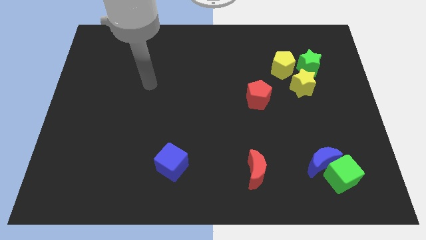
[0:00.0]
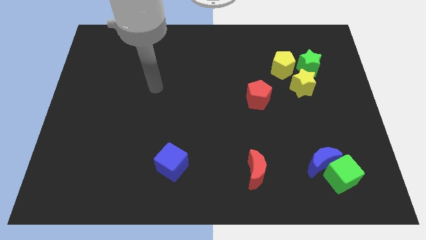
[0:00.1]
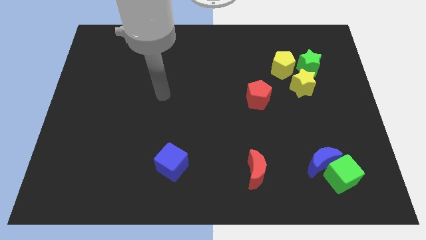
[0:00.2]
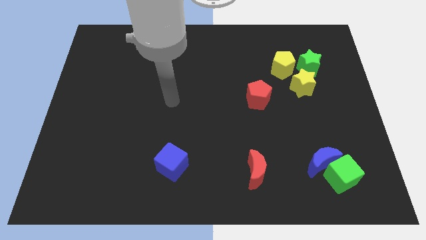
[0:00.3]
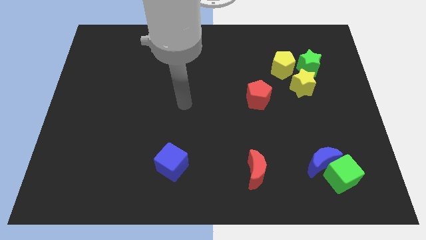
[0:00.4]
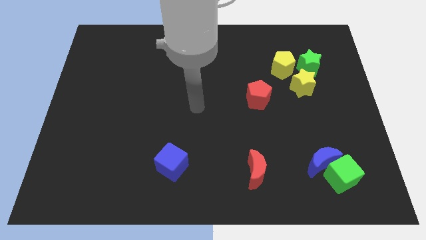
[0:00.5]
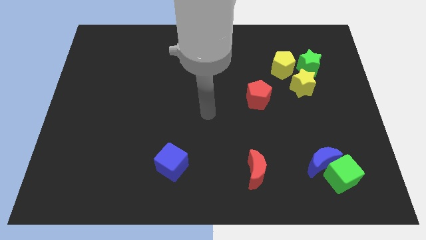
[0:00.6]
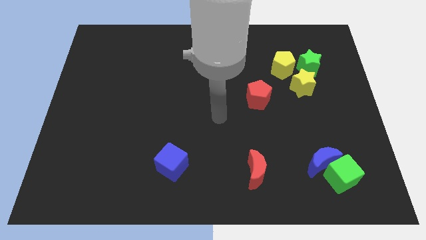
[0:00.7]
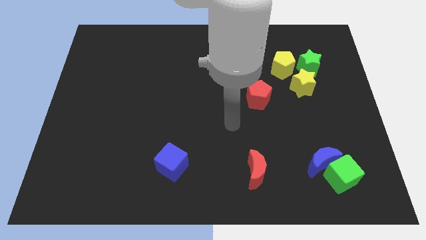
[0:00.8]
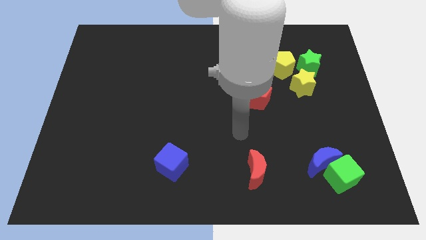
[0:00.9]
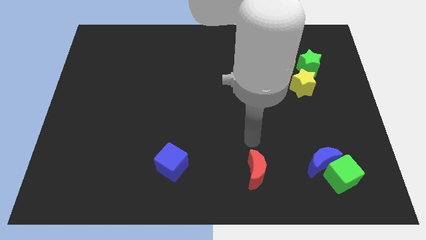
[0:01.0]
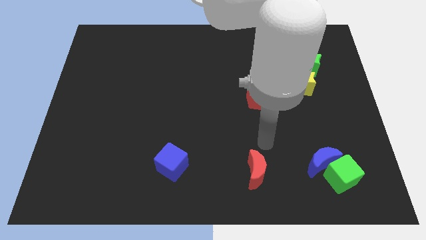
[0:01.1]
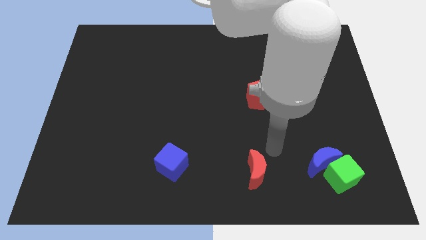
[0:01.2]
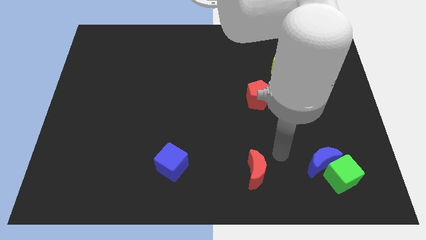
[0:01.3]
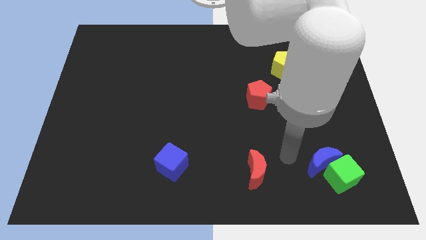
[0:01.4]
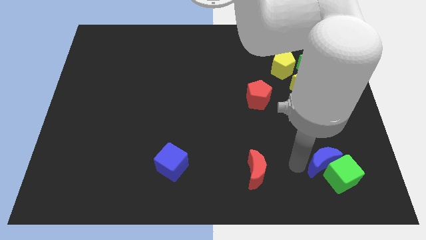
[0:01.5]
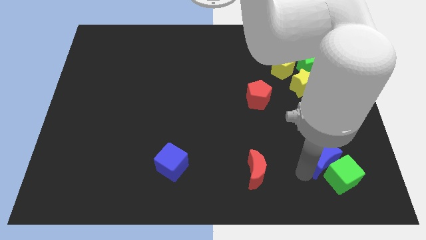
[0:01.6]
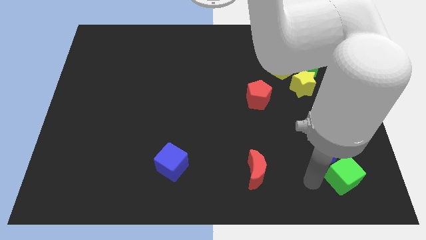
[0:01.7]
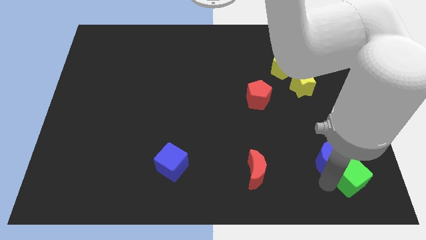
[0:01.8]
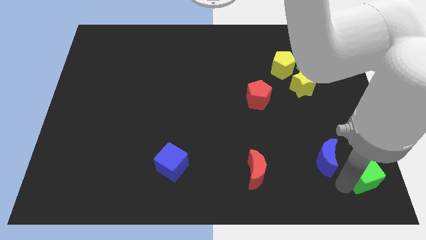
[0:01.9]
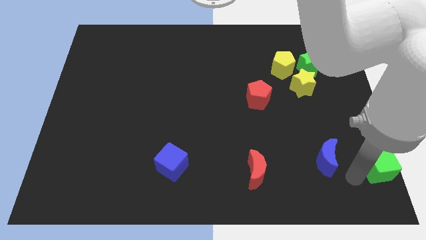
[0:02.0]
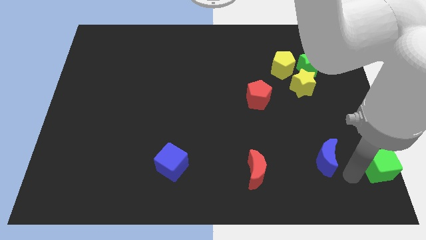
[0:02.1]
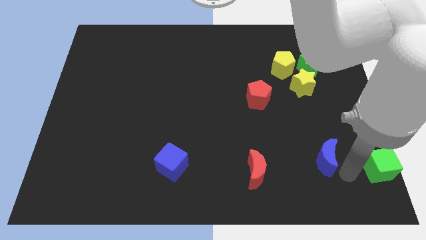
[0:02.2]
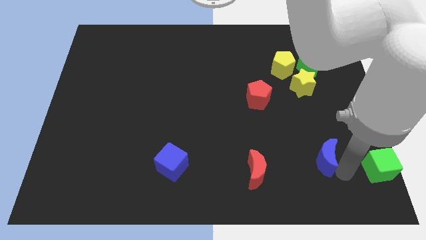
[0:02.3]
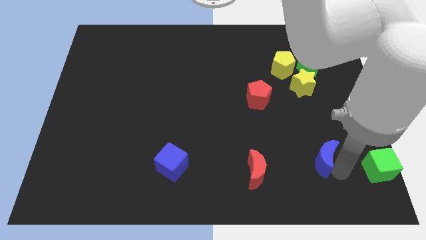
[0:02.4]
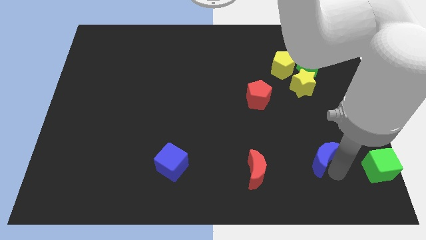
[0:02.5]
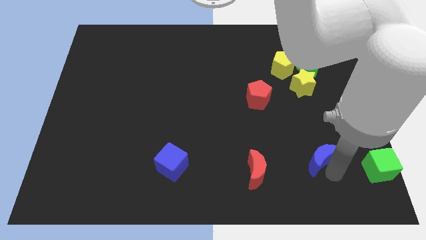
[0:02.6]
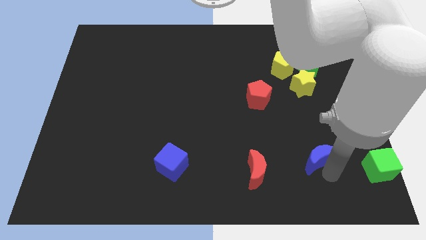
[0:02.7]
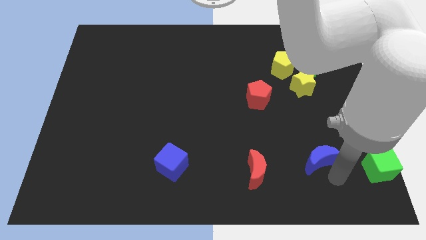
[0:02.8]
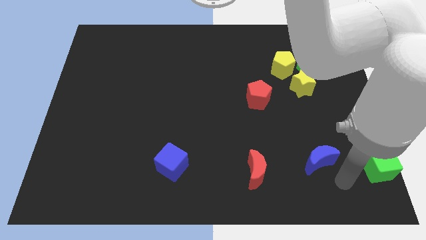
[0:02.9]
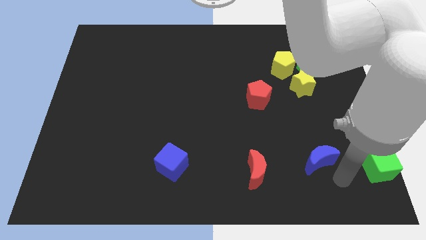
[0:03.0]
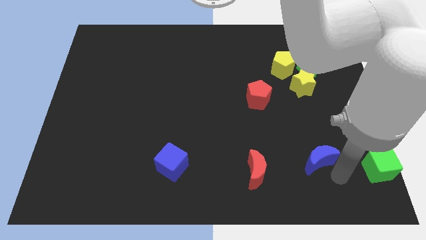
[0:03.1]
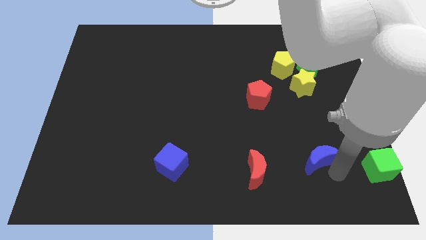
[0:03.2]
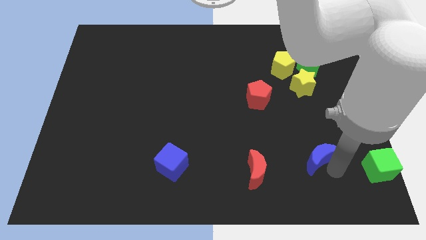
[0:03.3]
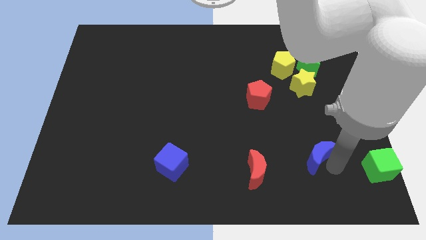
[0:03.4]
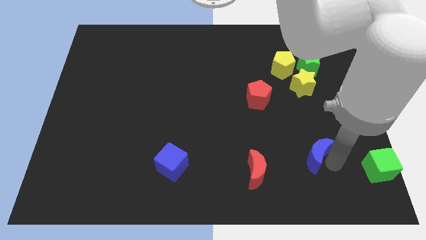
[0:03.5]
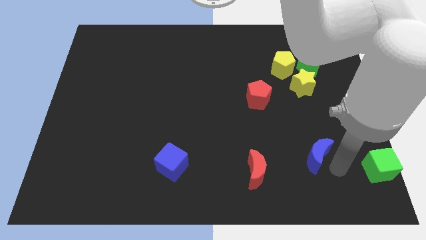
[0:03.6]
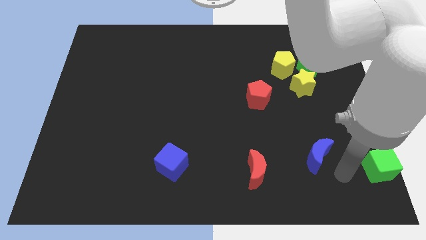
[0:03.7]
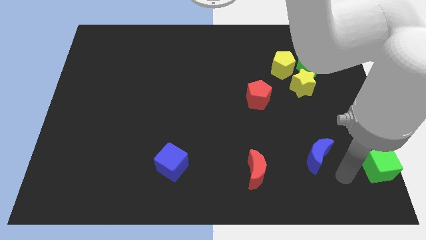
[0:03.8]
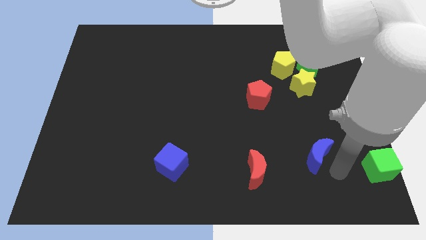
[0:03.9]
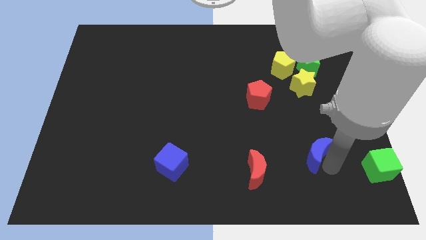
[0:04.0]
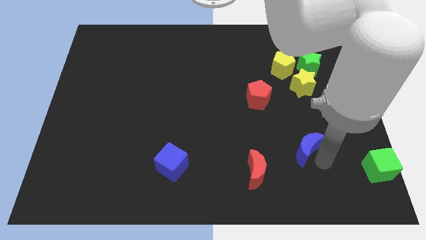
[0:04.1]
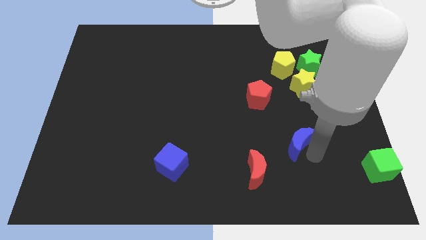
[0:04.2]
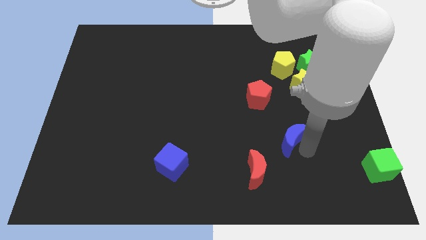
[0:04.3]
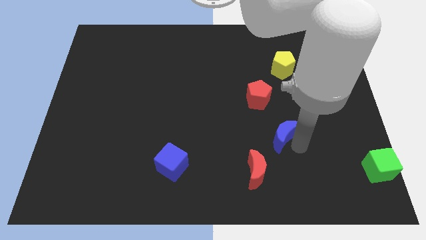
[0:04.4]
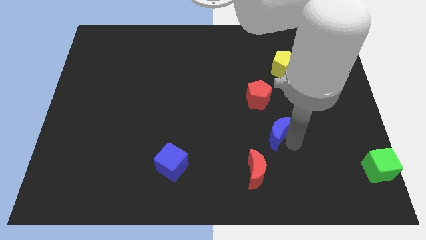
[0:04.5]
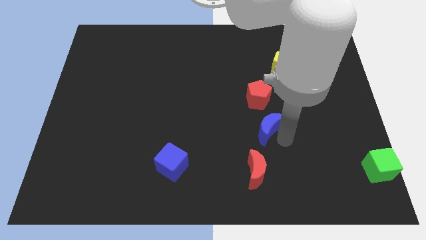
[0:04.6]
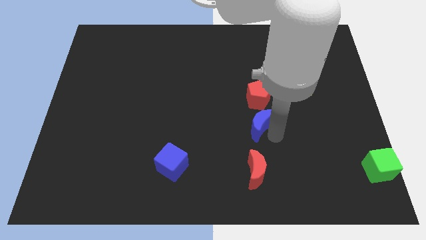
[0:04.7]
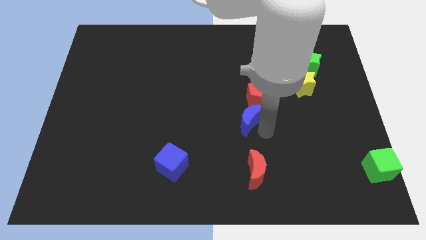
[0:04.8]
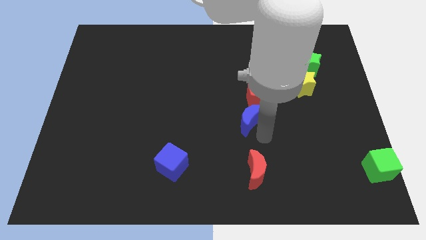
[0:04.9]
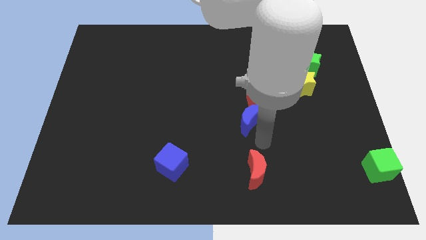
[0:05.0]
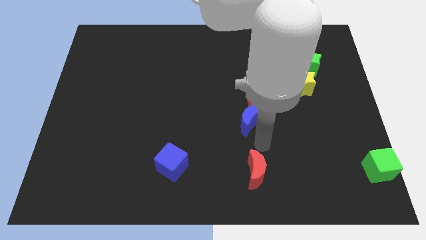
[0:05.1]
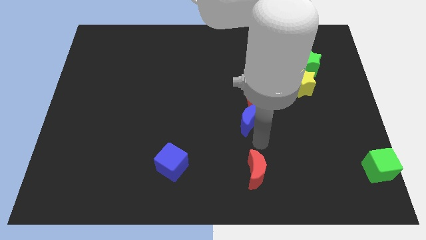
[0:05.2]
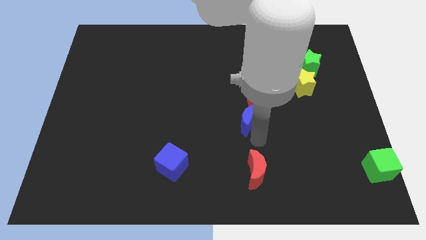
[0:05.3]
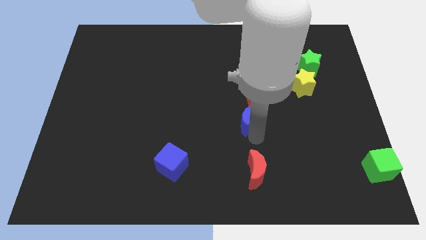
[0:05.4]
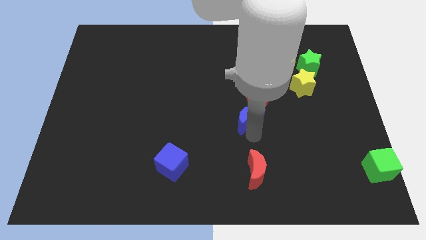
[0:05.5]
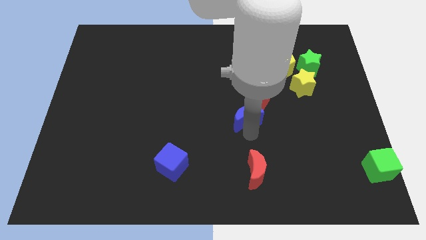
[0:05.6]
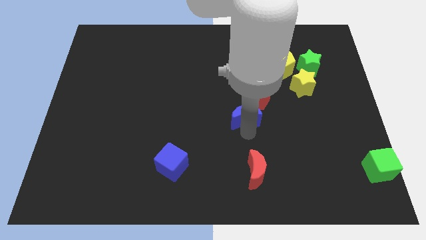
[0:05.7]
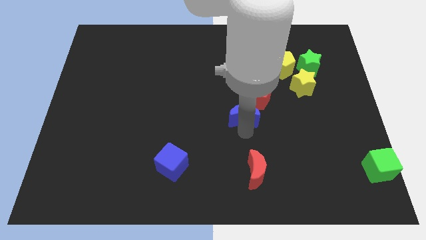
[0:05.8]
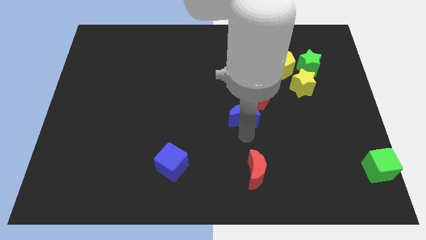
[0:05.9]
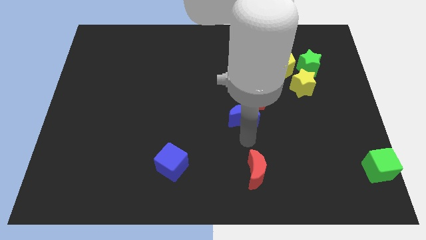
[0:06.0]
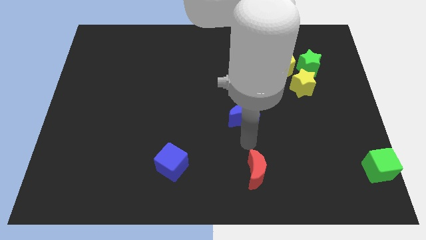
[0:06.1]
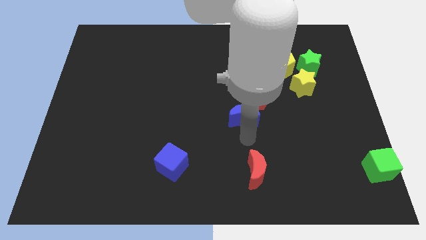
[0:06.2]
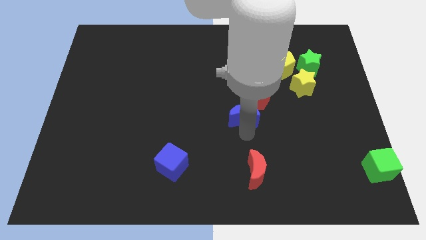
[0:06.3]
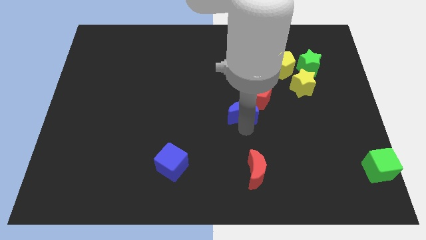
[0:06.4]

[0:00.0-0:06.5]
push the blue moon diagonally up and to the left

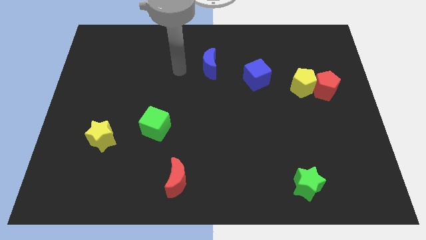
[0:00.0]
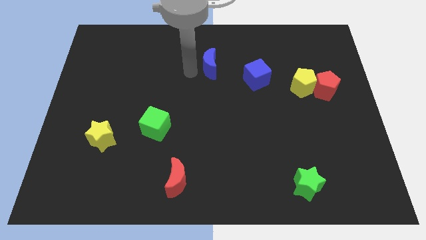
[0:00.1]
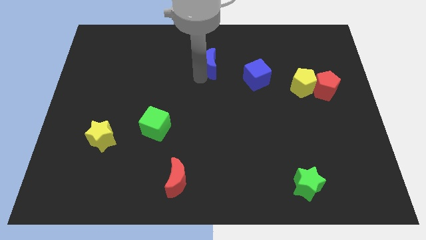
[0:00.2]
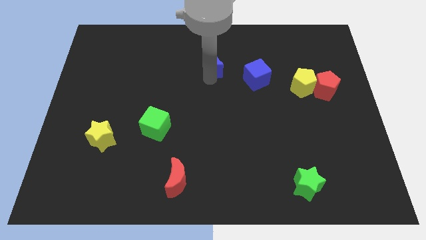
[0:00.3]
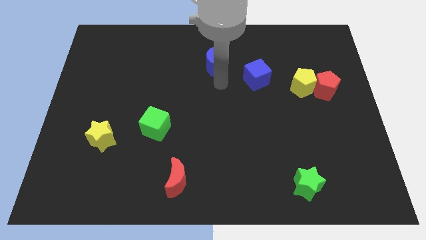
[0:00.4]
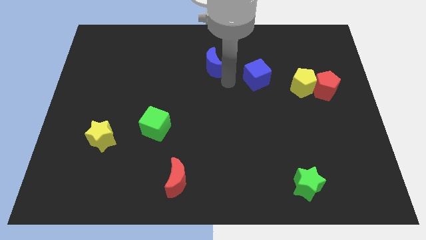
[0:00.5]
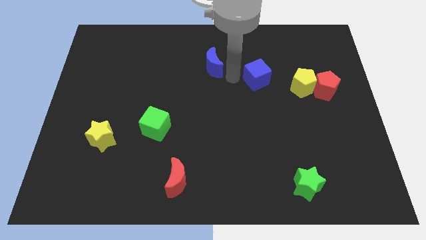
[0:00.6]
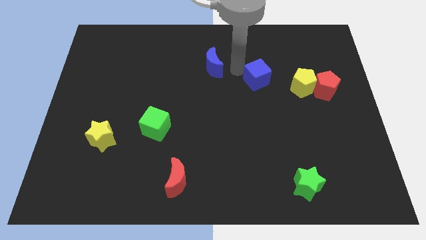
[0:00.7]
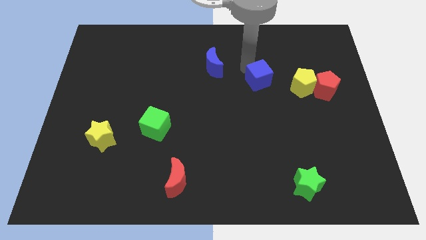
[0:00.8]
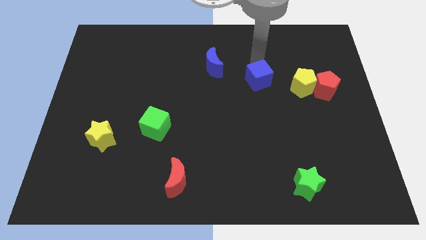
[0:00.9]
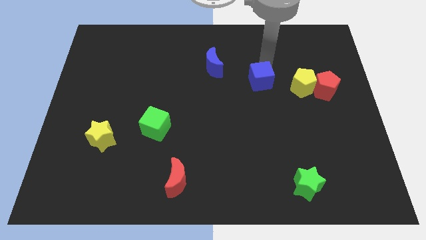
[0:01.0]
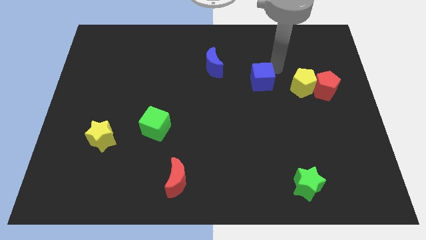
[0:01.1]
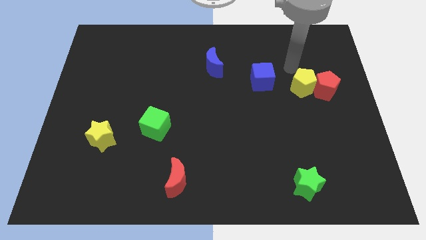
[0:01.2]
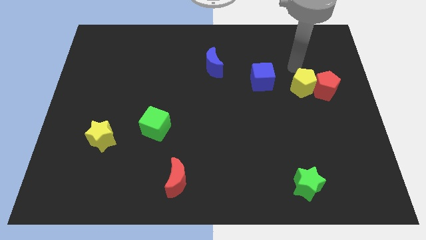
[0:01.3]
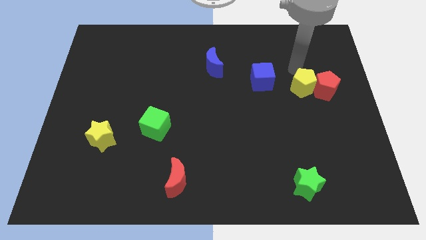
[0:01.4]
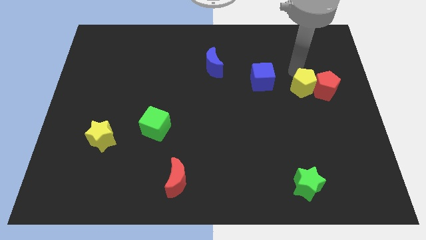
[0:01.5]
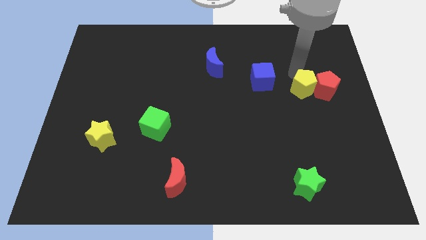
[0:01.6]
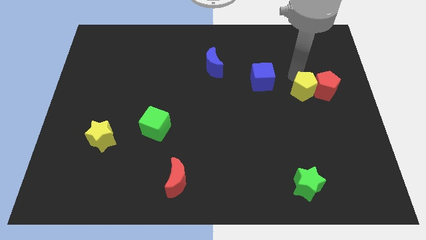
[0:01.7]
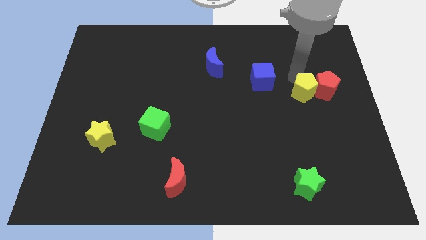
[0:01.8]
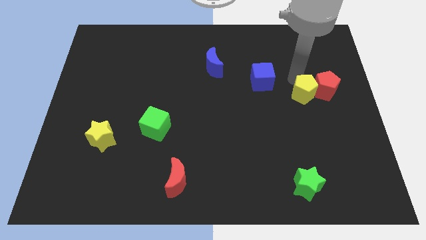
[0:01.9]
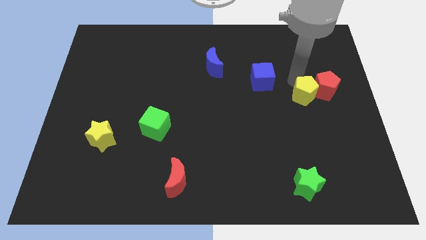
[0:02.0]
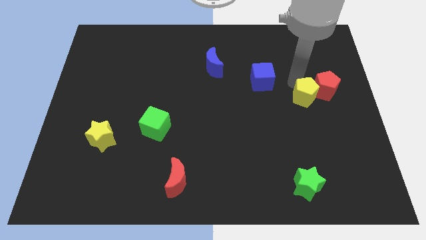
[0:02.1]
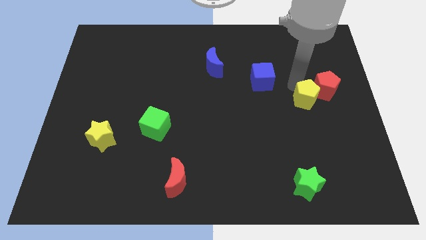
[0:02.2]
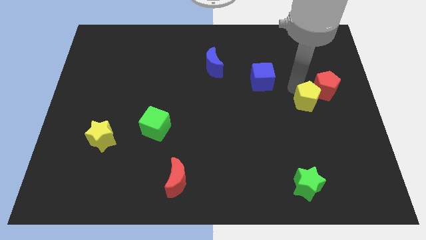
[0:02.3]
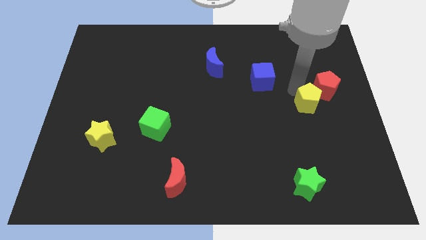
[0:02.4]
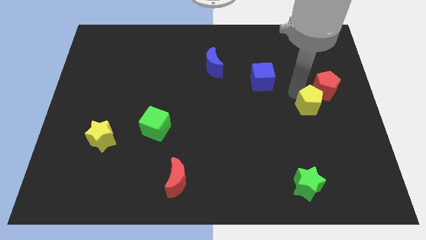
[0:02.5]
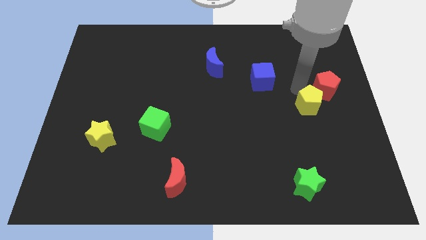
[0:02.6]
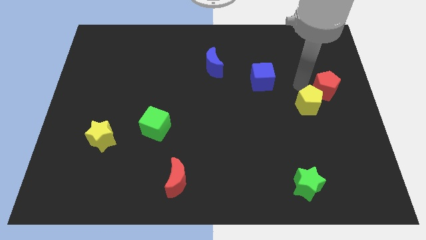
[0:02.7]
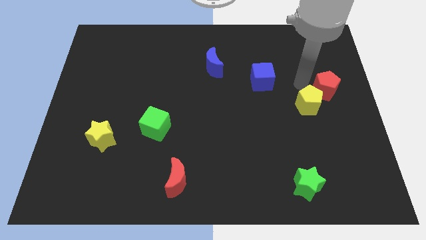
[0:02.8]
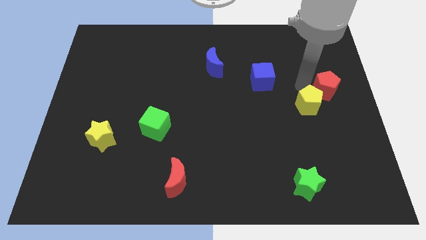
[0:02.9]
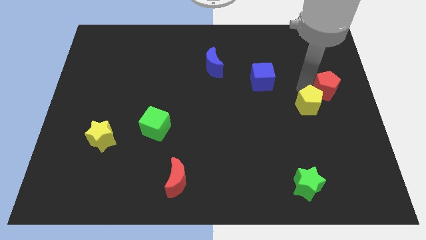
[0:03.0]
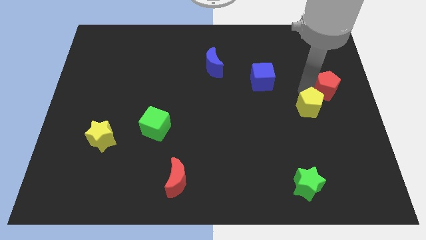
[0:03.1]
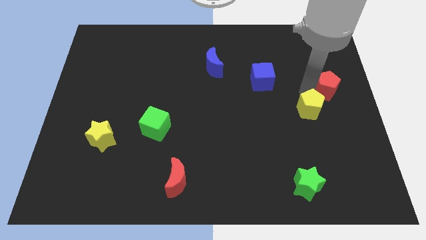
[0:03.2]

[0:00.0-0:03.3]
push the yellow pentagon down somewhat
